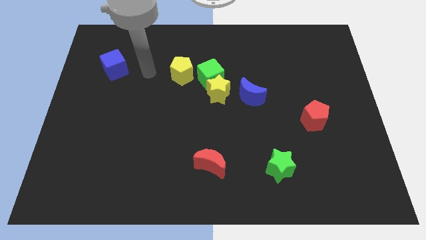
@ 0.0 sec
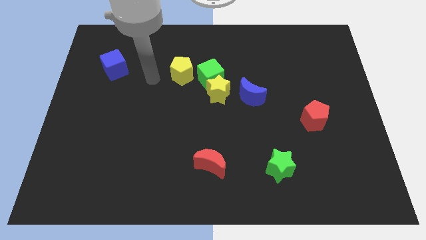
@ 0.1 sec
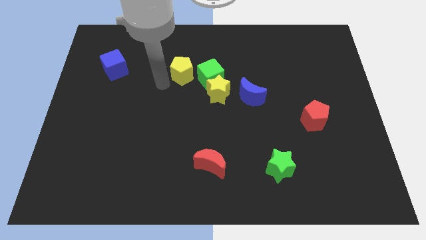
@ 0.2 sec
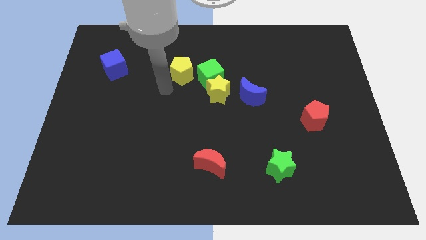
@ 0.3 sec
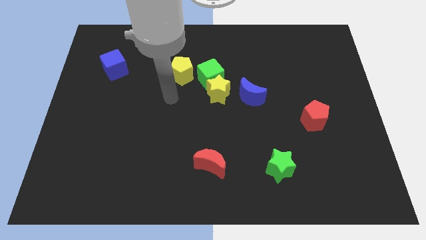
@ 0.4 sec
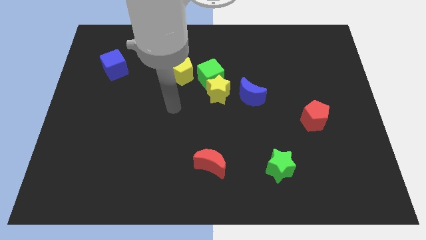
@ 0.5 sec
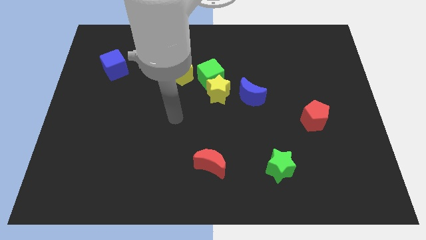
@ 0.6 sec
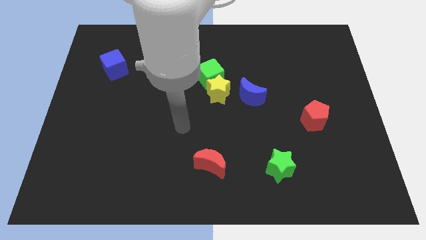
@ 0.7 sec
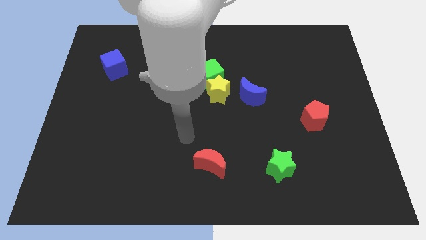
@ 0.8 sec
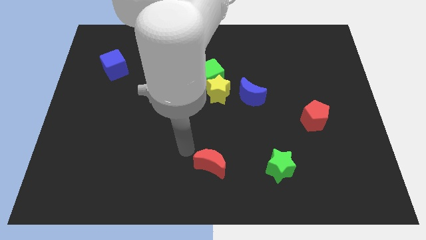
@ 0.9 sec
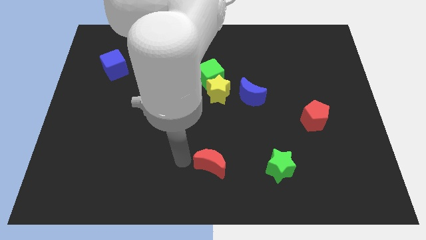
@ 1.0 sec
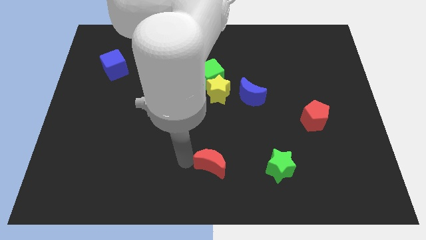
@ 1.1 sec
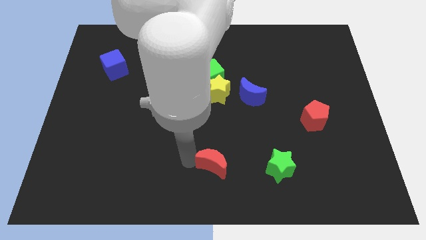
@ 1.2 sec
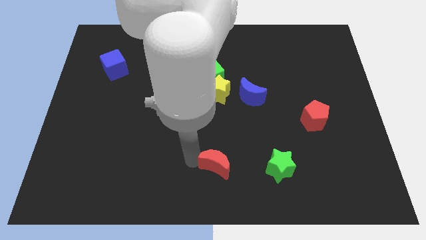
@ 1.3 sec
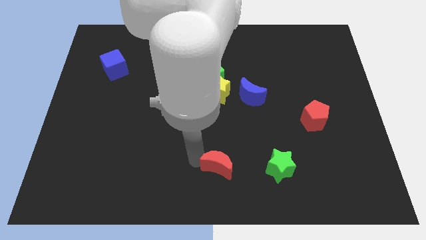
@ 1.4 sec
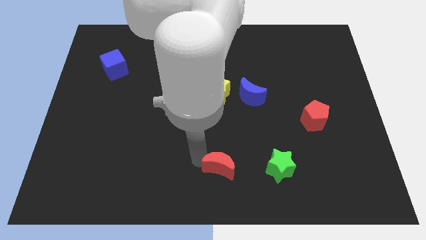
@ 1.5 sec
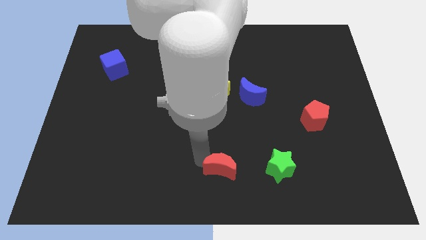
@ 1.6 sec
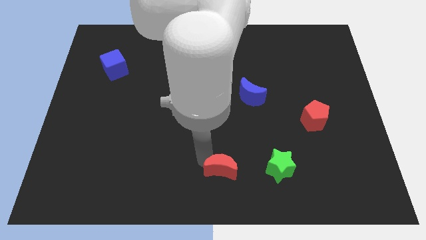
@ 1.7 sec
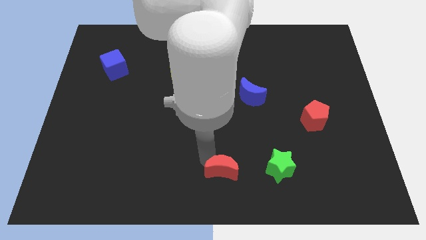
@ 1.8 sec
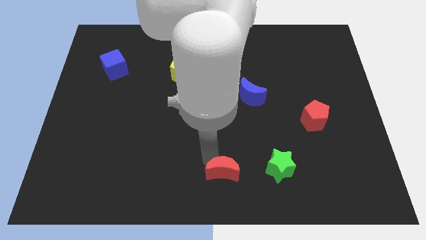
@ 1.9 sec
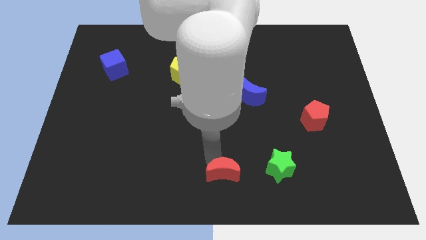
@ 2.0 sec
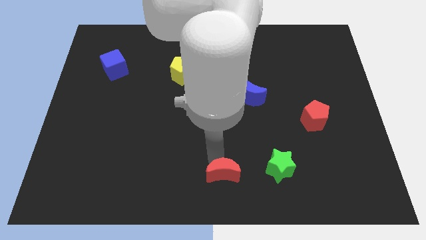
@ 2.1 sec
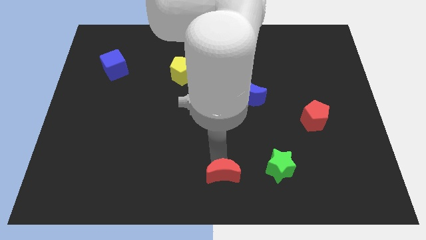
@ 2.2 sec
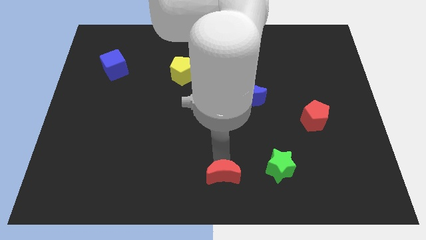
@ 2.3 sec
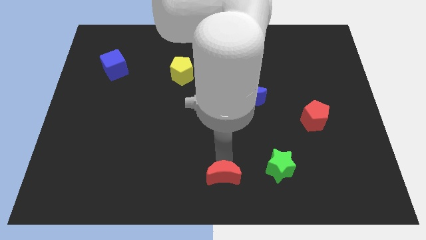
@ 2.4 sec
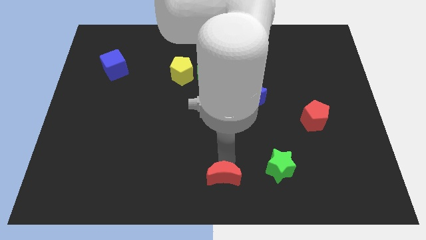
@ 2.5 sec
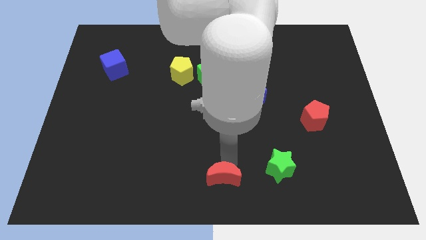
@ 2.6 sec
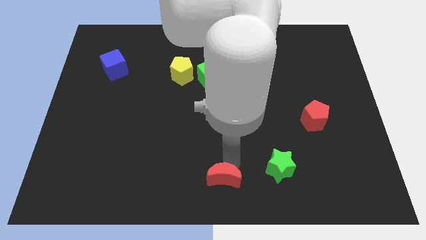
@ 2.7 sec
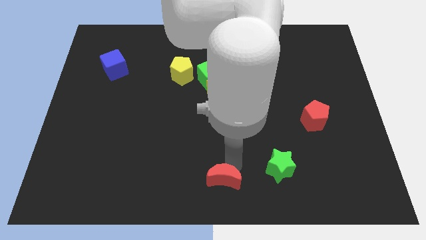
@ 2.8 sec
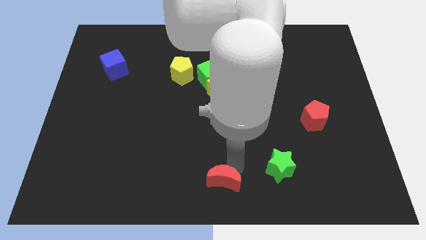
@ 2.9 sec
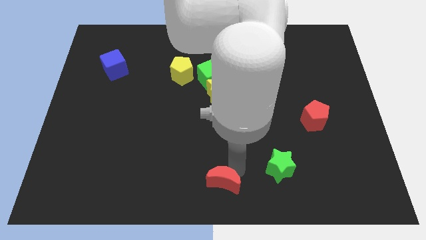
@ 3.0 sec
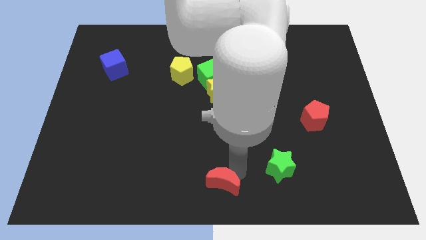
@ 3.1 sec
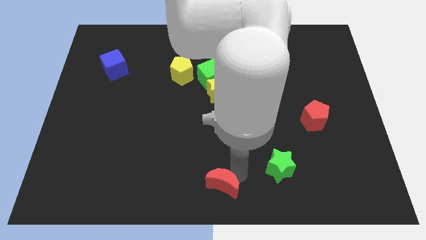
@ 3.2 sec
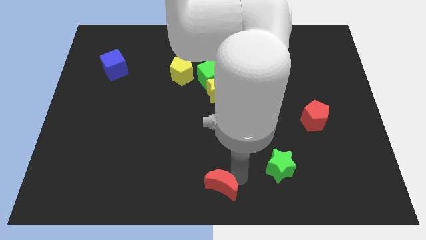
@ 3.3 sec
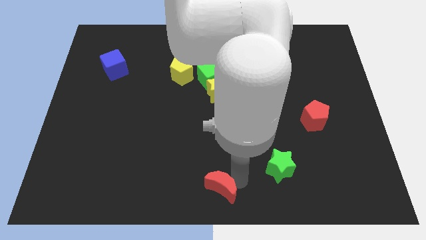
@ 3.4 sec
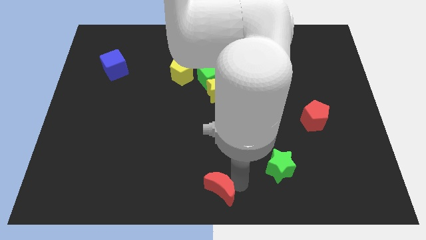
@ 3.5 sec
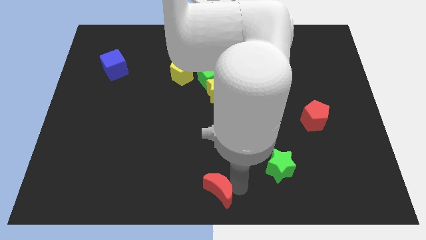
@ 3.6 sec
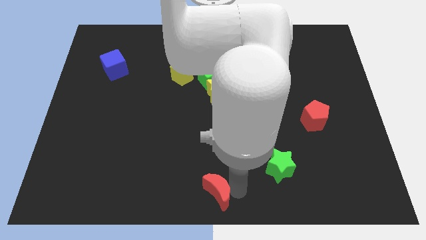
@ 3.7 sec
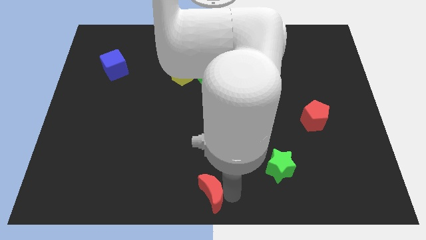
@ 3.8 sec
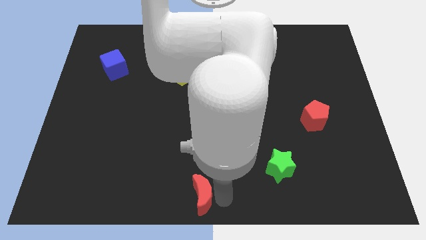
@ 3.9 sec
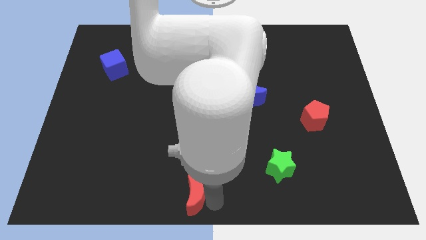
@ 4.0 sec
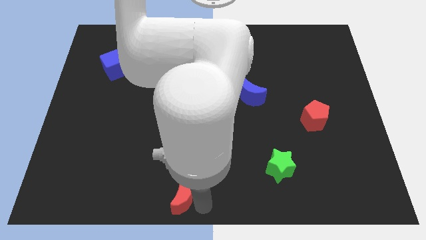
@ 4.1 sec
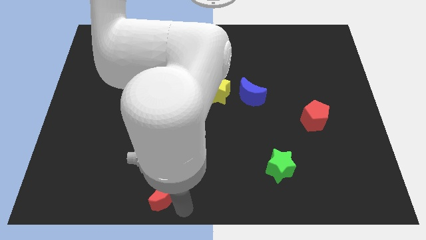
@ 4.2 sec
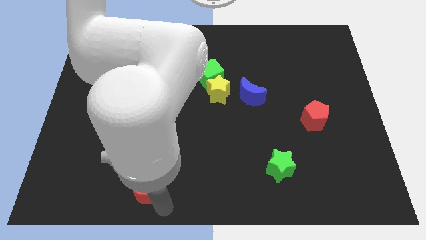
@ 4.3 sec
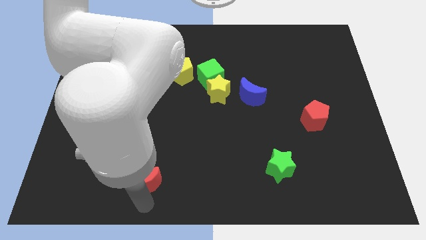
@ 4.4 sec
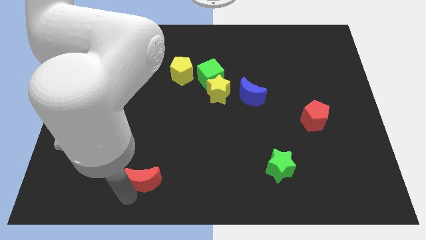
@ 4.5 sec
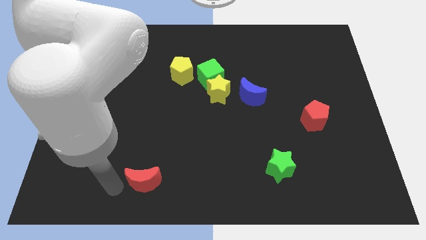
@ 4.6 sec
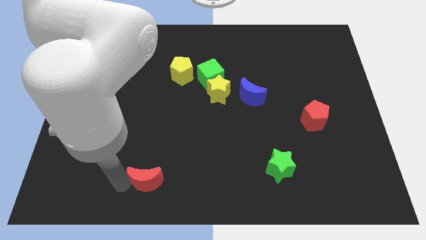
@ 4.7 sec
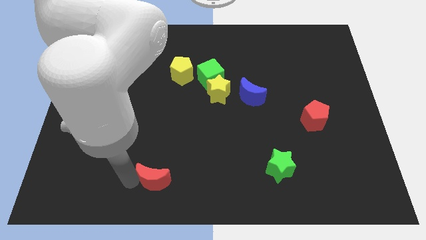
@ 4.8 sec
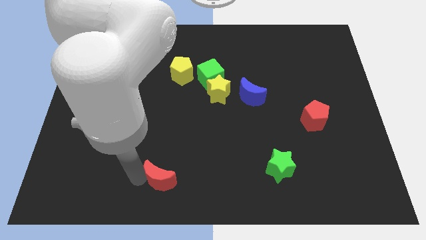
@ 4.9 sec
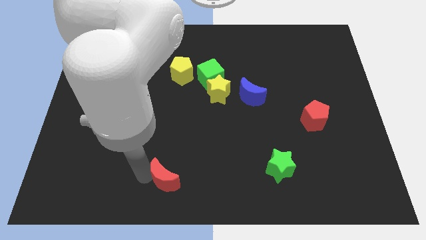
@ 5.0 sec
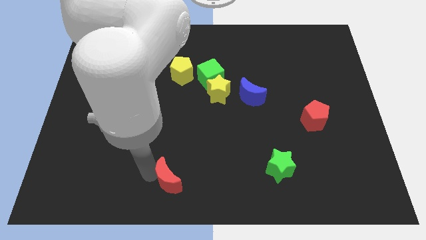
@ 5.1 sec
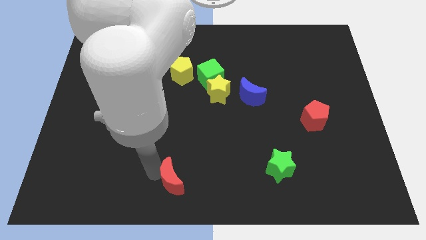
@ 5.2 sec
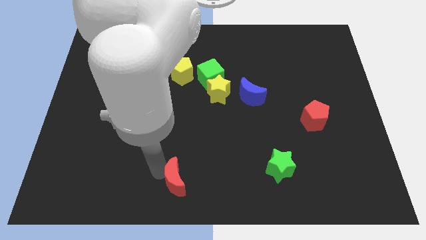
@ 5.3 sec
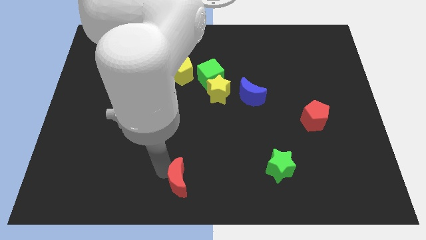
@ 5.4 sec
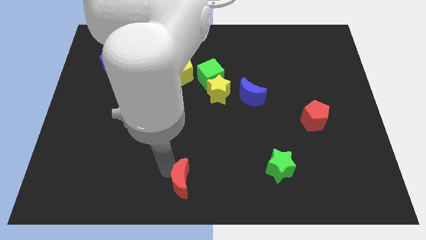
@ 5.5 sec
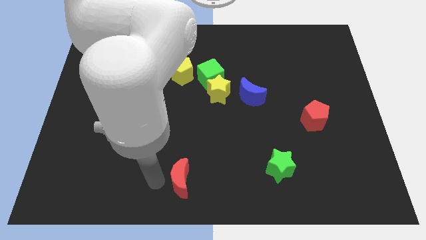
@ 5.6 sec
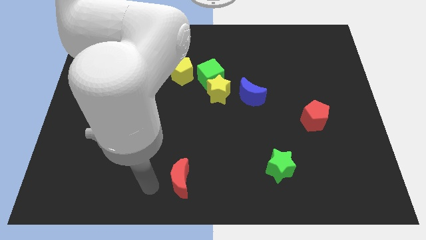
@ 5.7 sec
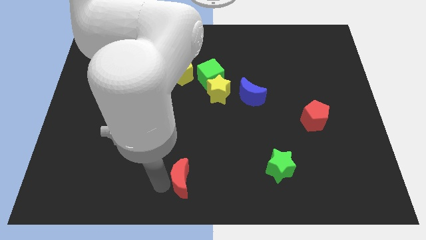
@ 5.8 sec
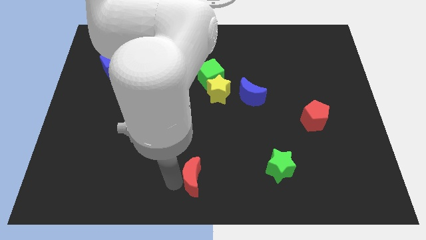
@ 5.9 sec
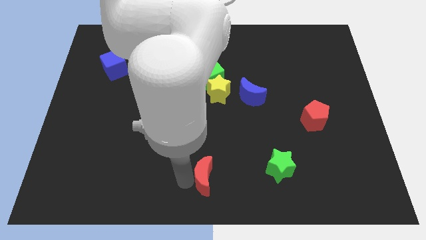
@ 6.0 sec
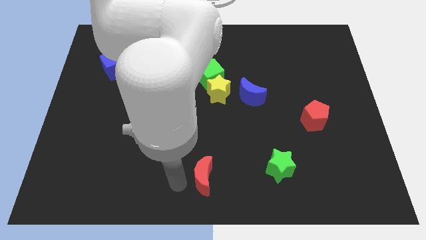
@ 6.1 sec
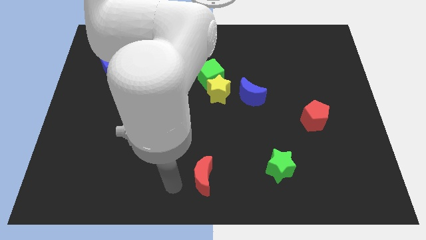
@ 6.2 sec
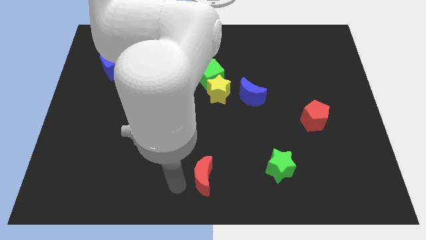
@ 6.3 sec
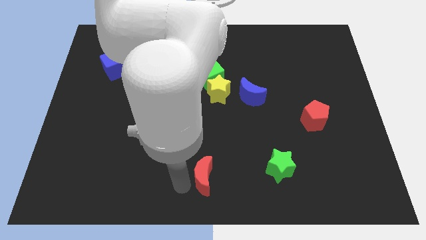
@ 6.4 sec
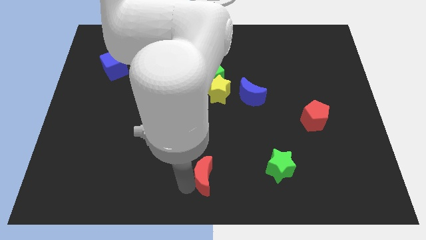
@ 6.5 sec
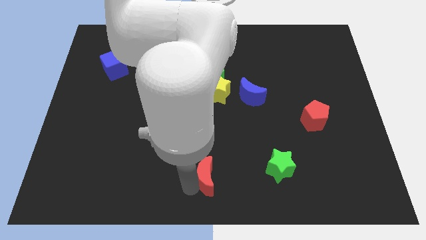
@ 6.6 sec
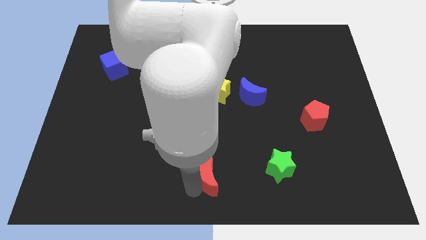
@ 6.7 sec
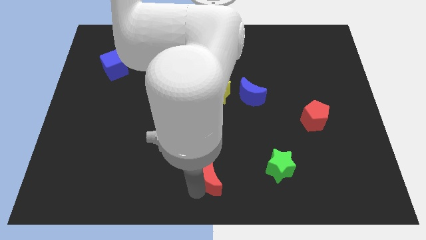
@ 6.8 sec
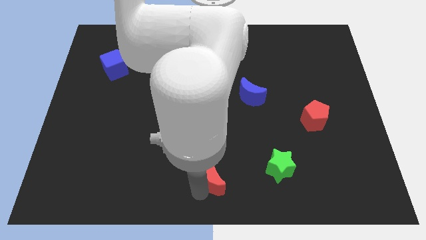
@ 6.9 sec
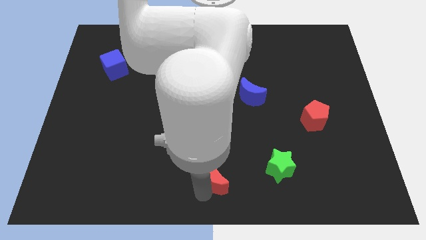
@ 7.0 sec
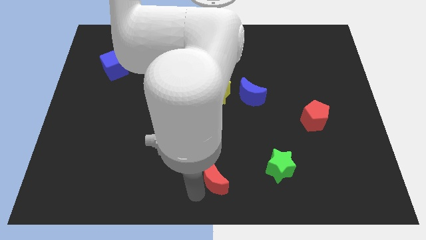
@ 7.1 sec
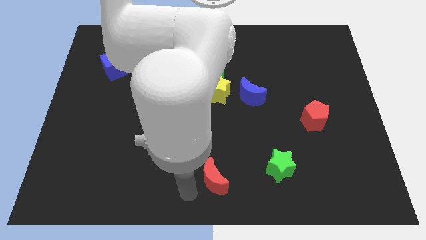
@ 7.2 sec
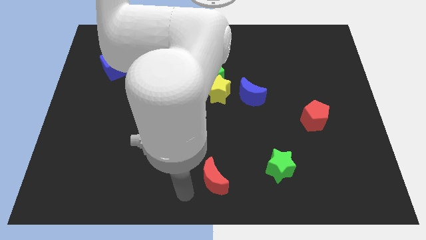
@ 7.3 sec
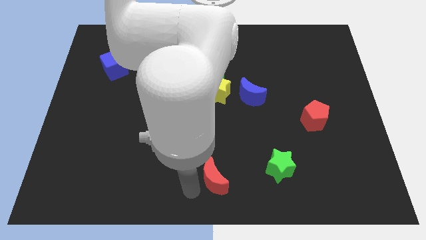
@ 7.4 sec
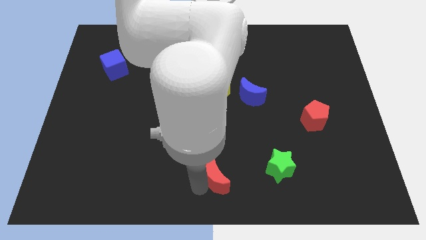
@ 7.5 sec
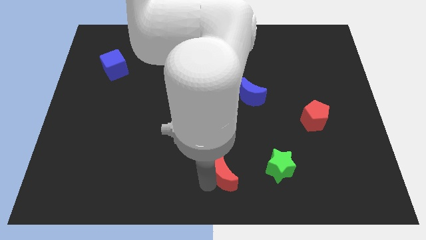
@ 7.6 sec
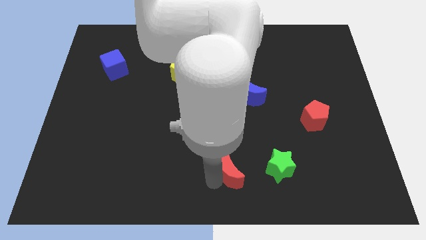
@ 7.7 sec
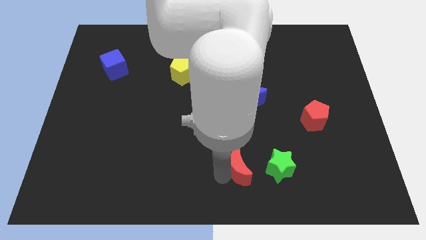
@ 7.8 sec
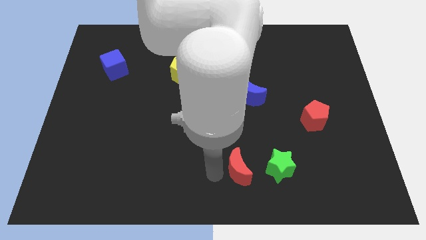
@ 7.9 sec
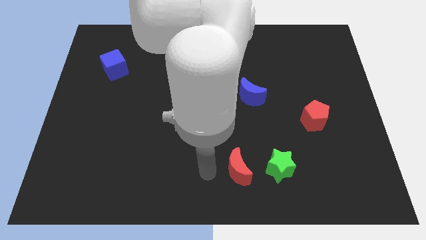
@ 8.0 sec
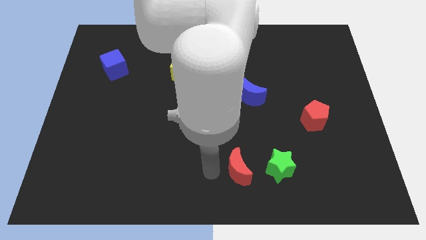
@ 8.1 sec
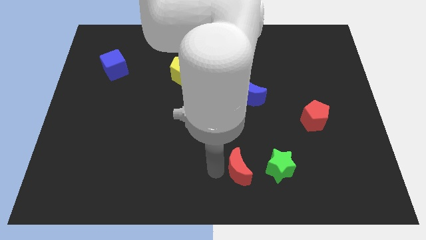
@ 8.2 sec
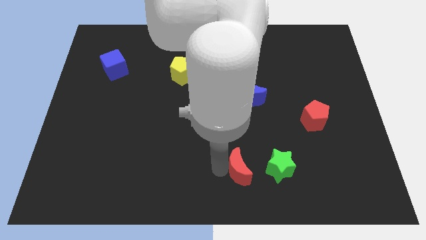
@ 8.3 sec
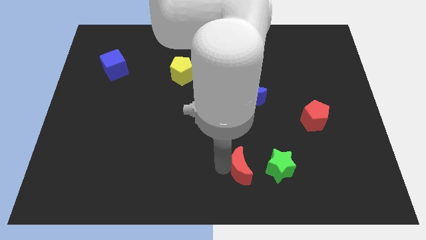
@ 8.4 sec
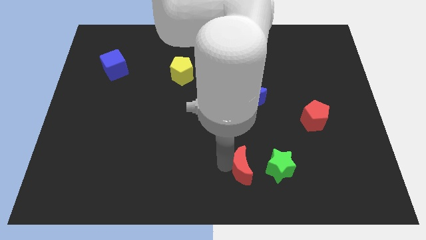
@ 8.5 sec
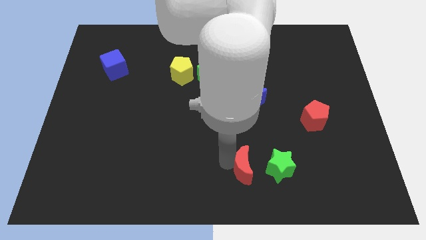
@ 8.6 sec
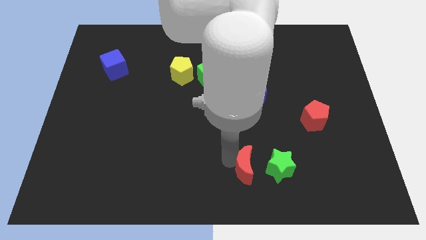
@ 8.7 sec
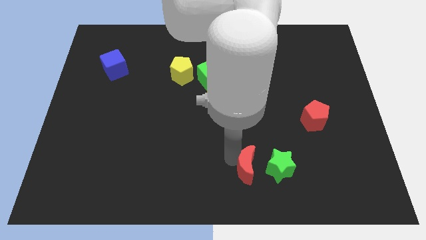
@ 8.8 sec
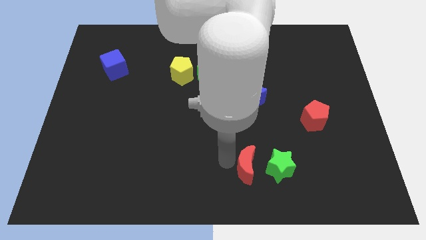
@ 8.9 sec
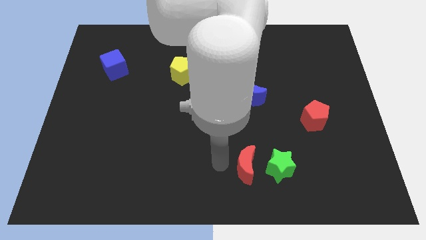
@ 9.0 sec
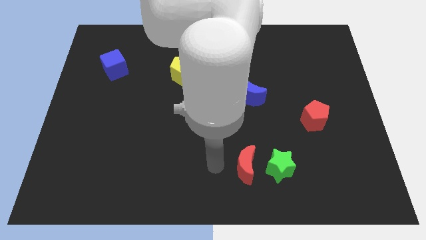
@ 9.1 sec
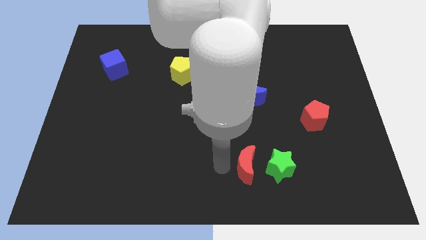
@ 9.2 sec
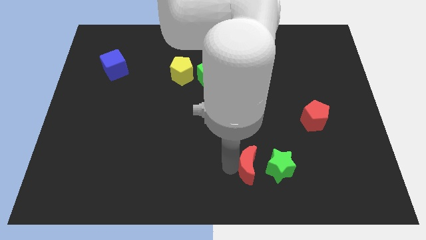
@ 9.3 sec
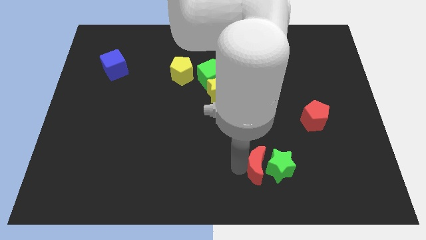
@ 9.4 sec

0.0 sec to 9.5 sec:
put the red moon towards the green star
